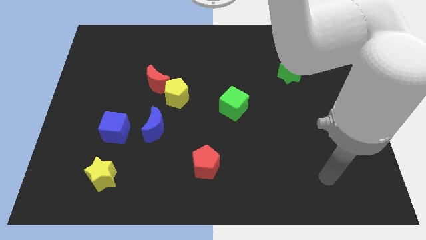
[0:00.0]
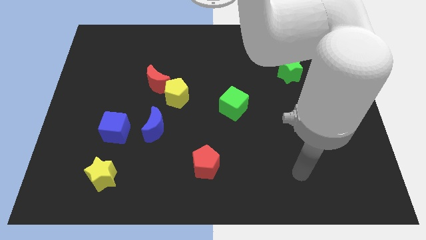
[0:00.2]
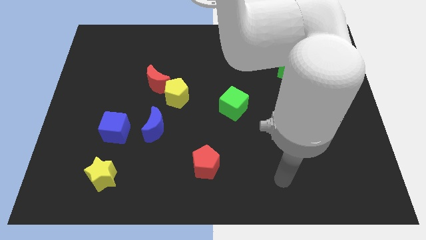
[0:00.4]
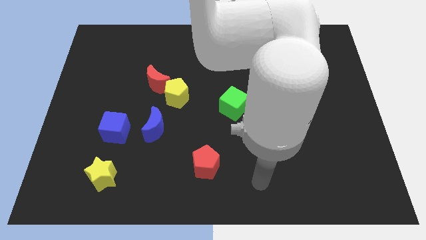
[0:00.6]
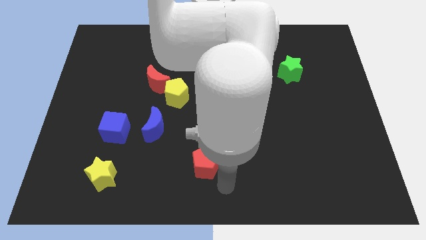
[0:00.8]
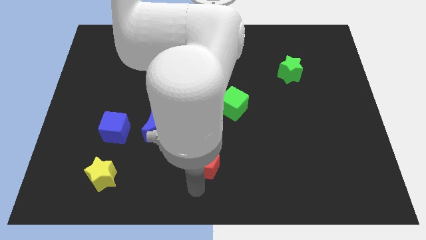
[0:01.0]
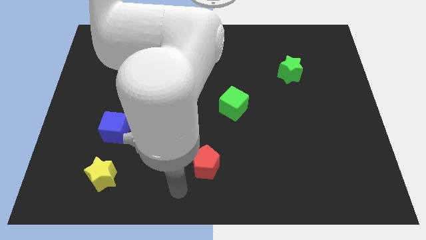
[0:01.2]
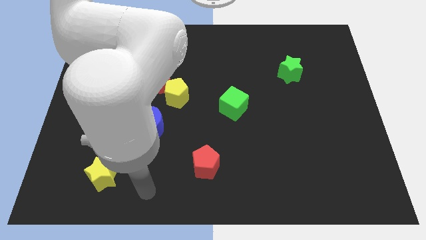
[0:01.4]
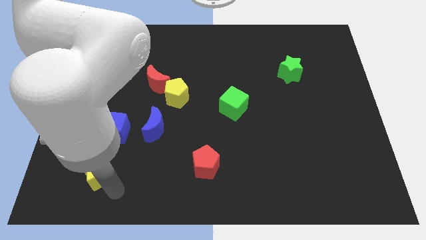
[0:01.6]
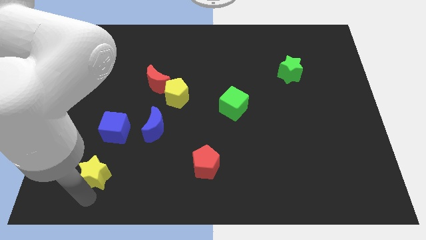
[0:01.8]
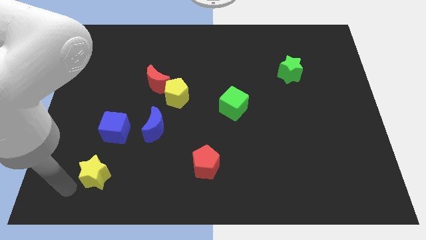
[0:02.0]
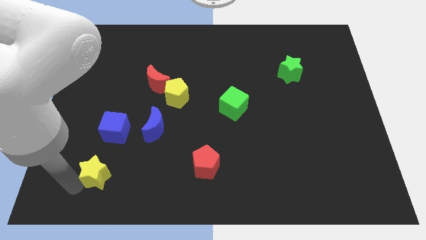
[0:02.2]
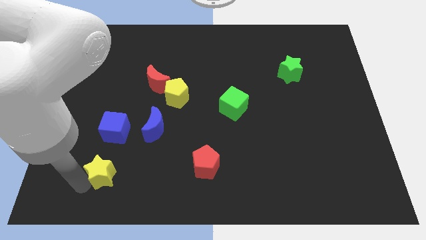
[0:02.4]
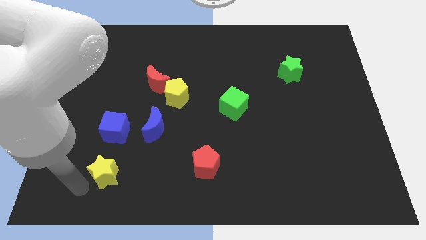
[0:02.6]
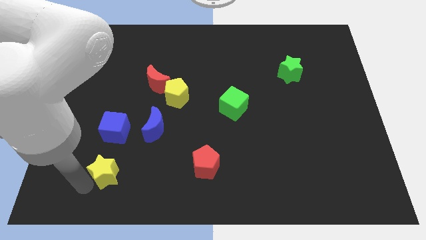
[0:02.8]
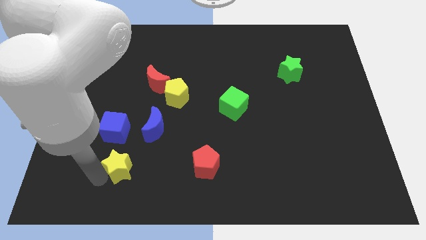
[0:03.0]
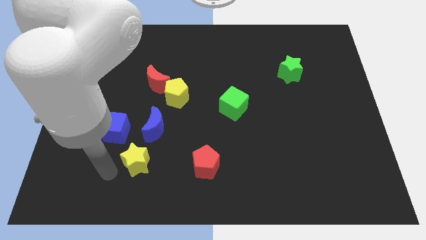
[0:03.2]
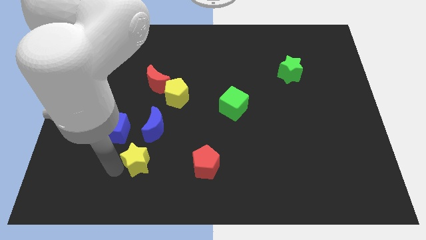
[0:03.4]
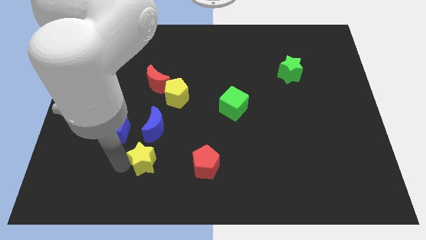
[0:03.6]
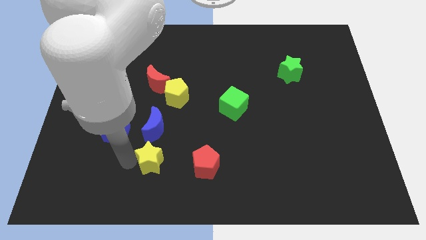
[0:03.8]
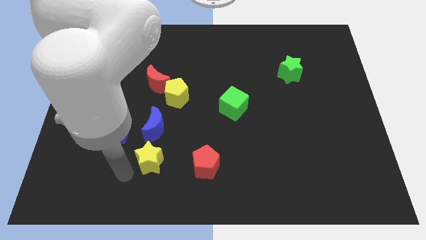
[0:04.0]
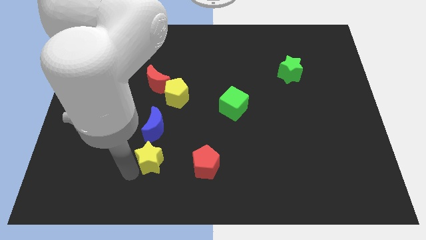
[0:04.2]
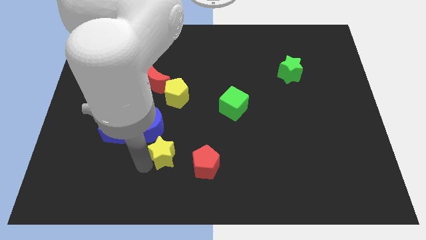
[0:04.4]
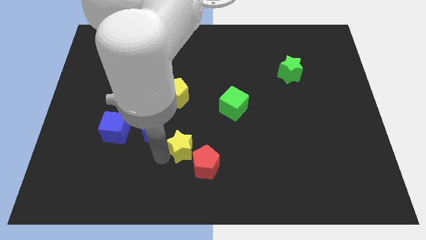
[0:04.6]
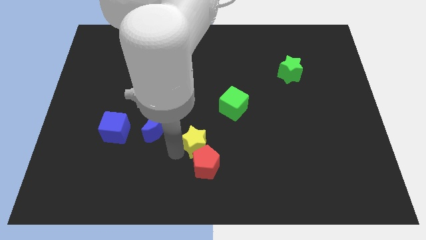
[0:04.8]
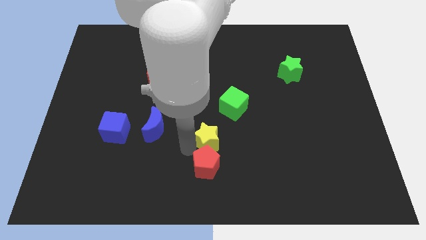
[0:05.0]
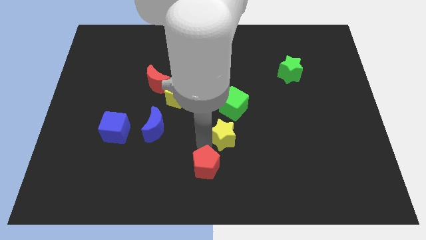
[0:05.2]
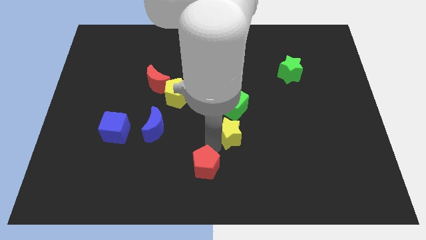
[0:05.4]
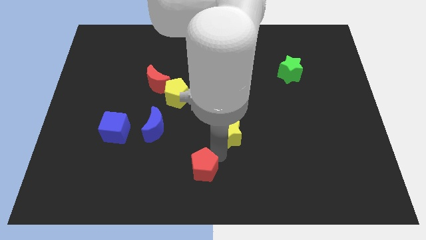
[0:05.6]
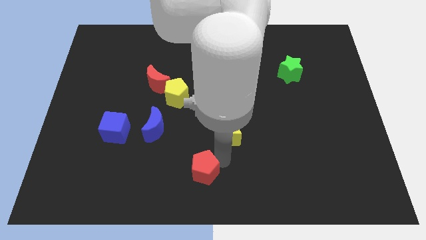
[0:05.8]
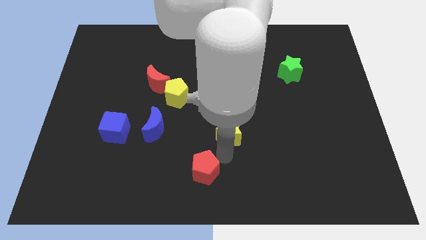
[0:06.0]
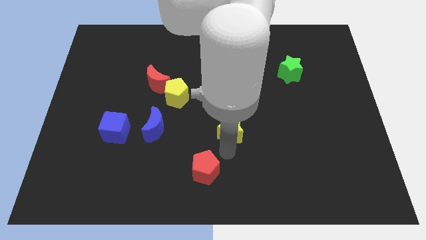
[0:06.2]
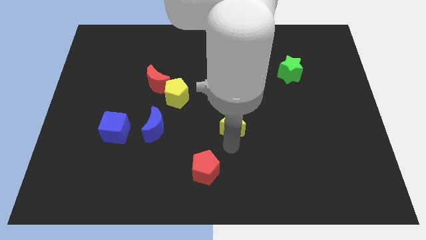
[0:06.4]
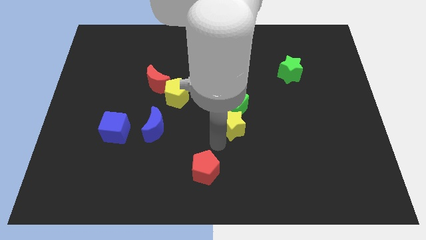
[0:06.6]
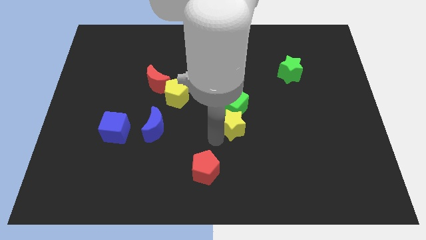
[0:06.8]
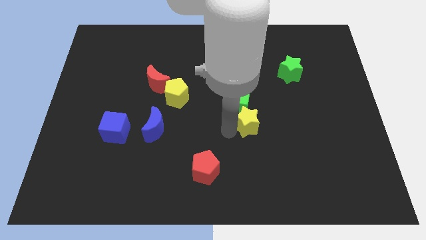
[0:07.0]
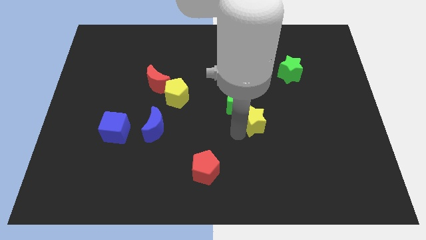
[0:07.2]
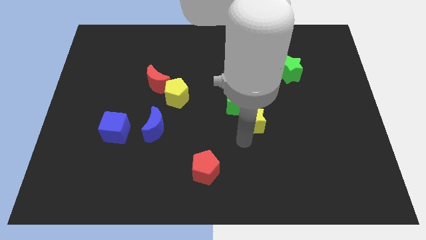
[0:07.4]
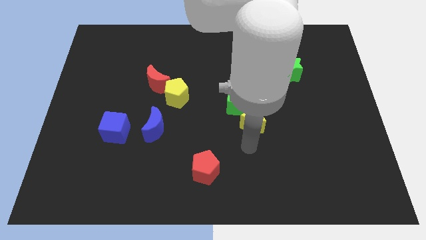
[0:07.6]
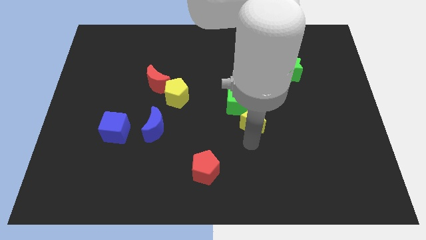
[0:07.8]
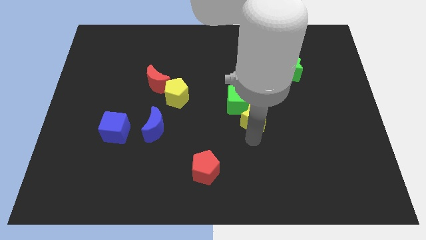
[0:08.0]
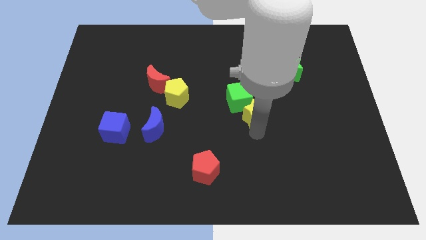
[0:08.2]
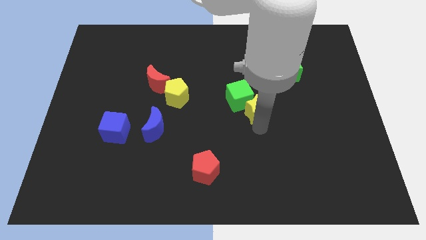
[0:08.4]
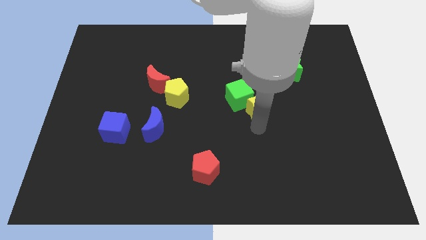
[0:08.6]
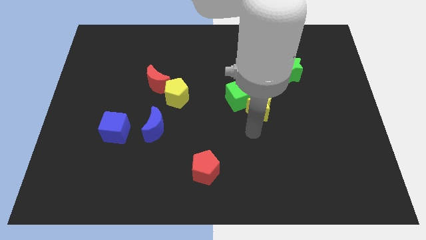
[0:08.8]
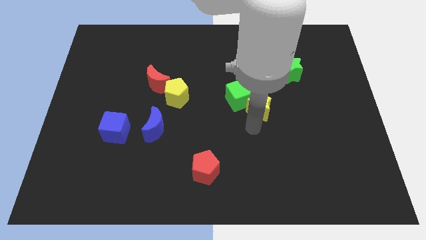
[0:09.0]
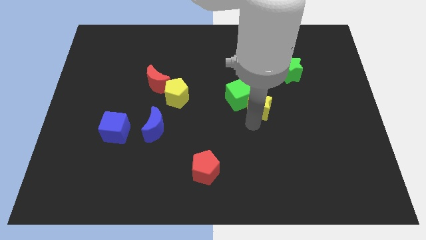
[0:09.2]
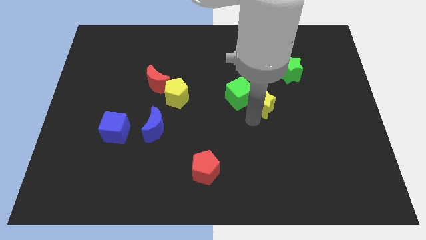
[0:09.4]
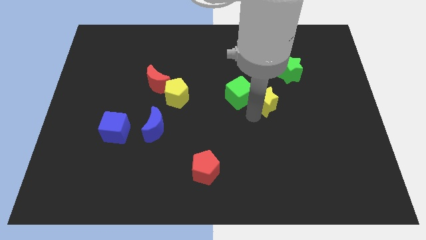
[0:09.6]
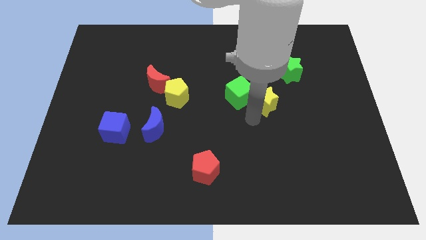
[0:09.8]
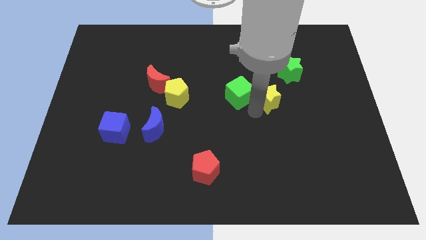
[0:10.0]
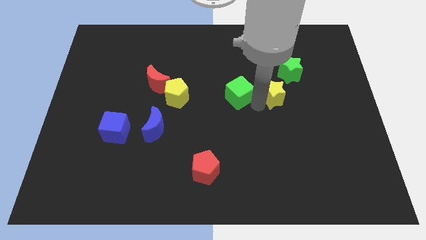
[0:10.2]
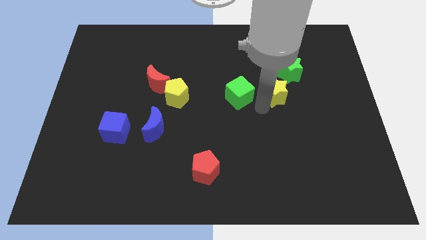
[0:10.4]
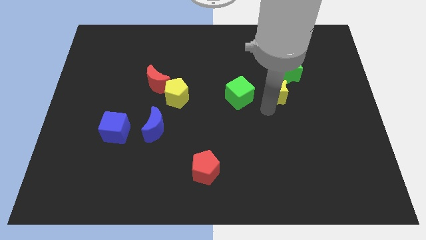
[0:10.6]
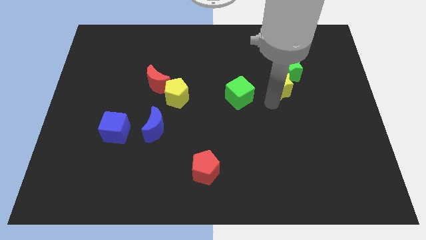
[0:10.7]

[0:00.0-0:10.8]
slide the yellow star next to the green star

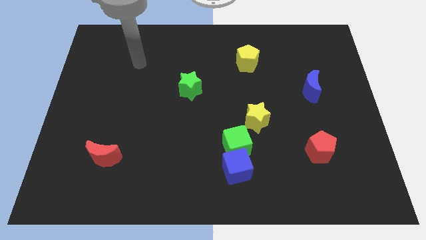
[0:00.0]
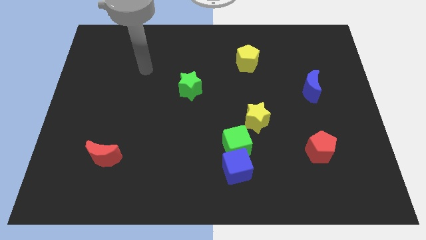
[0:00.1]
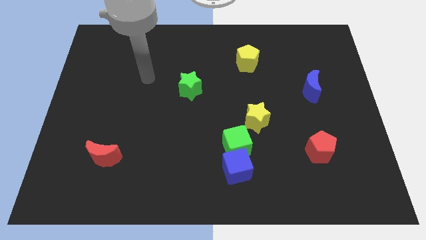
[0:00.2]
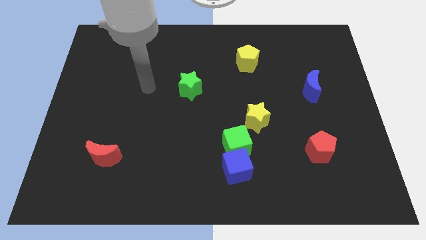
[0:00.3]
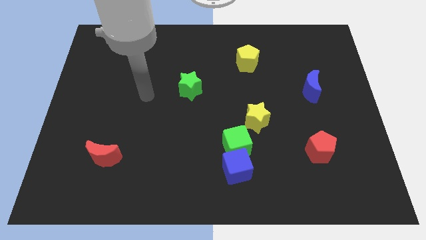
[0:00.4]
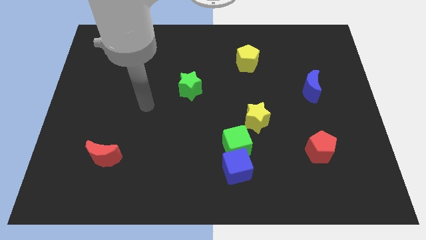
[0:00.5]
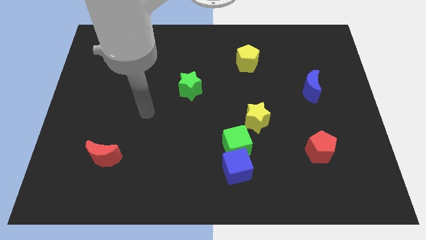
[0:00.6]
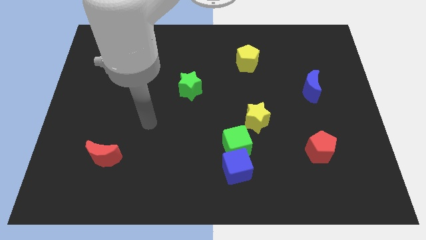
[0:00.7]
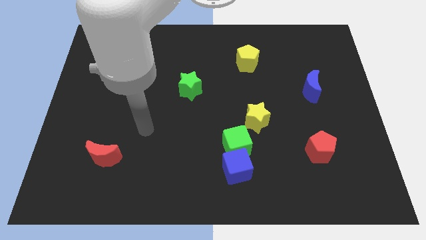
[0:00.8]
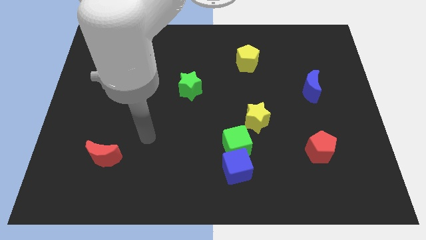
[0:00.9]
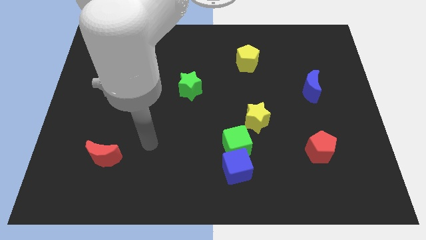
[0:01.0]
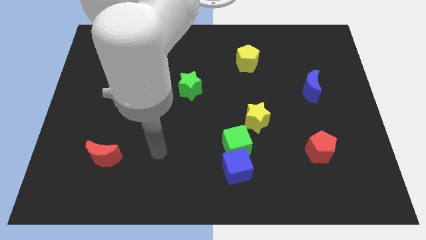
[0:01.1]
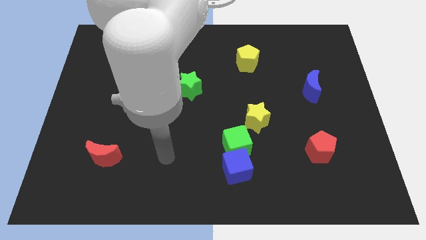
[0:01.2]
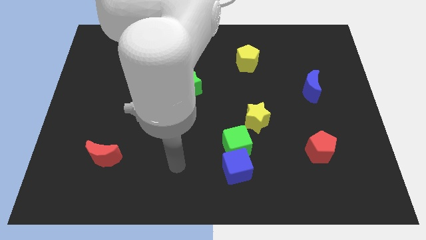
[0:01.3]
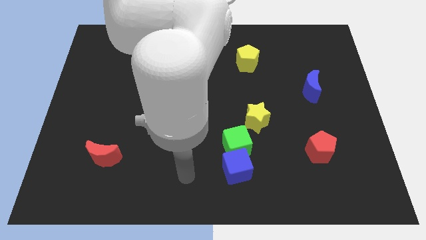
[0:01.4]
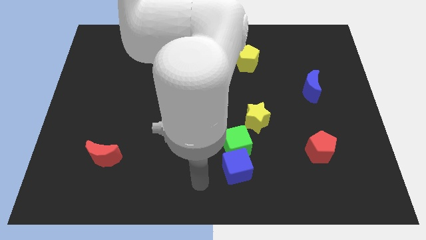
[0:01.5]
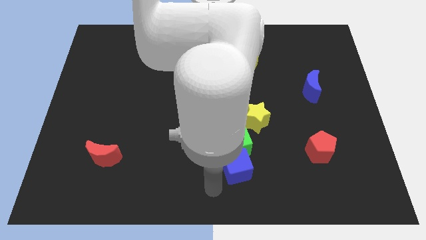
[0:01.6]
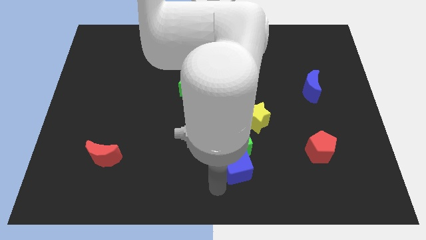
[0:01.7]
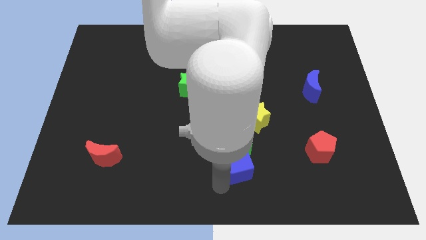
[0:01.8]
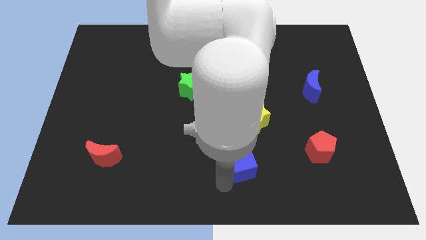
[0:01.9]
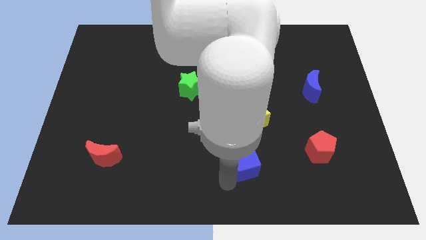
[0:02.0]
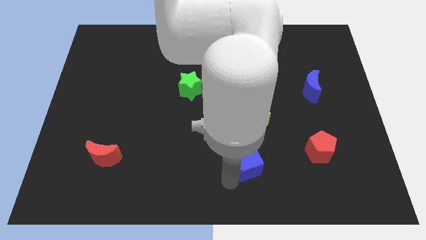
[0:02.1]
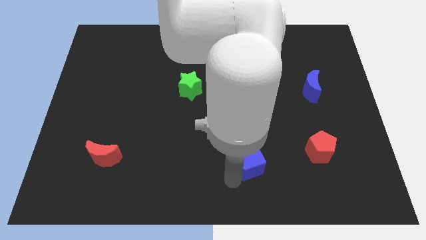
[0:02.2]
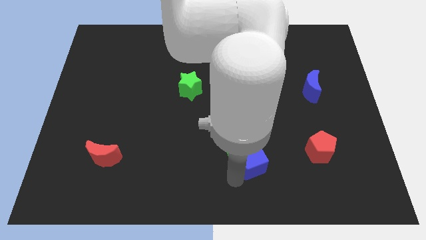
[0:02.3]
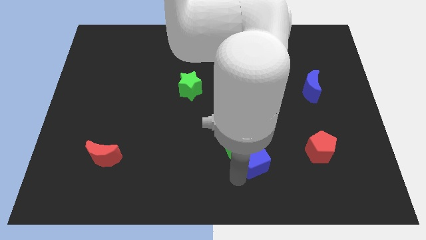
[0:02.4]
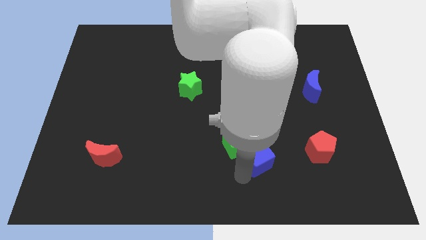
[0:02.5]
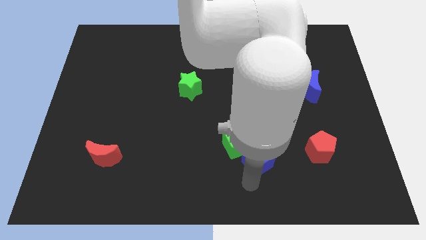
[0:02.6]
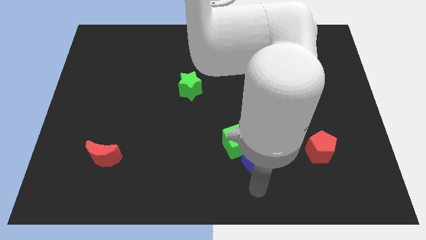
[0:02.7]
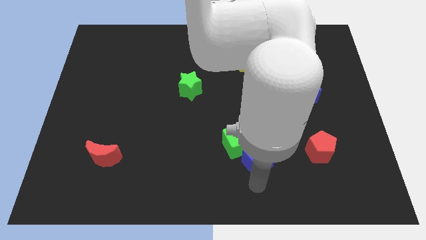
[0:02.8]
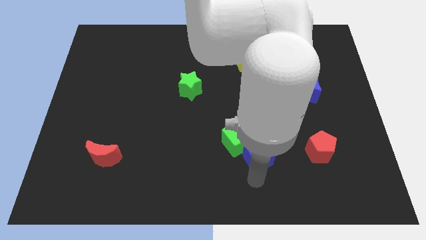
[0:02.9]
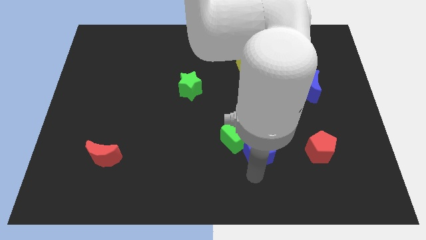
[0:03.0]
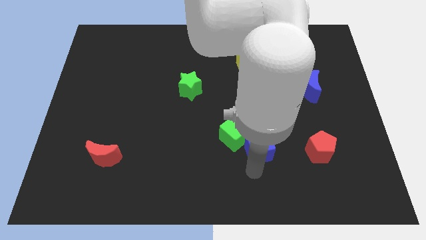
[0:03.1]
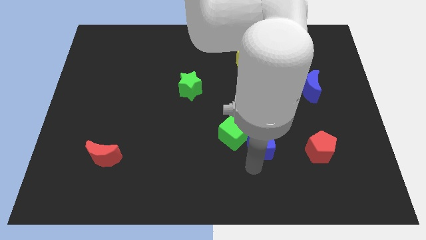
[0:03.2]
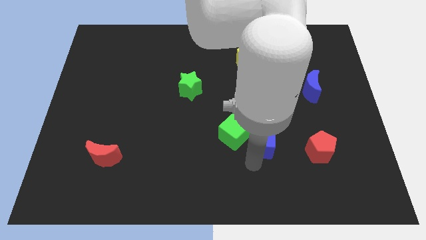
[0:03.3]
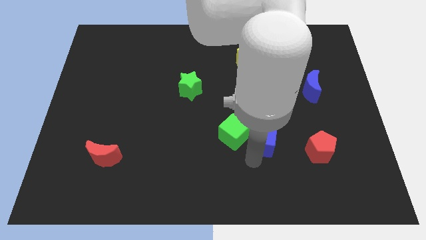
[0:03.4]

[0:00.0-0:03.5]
slide the blue cube close to the yellow star
